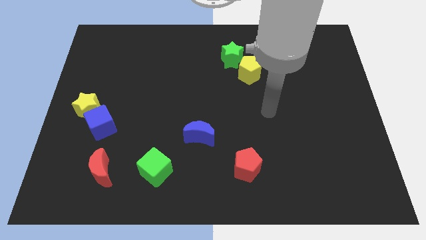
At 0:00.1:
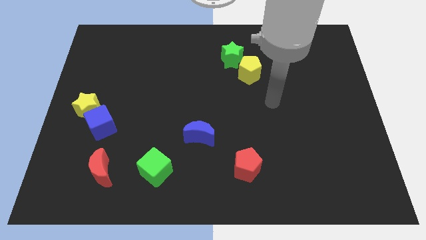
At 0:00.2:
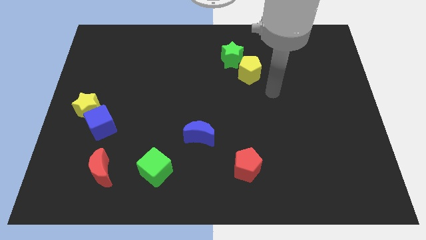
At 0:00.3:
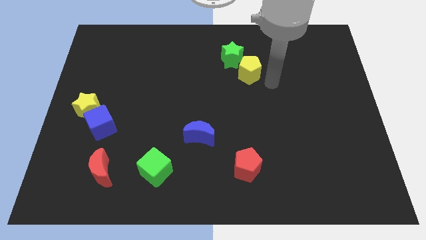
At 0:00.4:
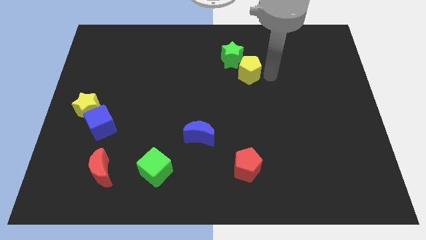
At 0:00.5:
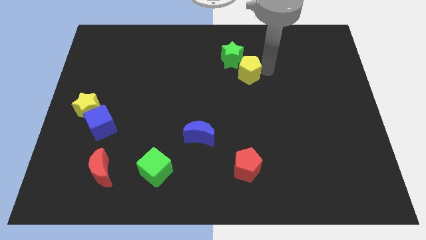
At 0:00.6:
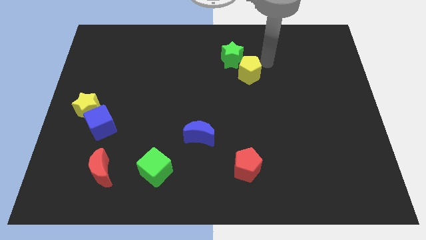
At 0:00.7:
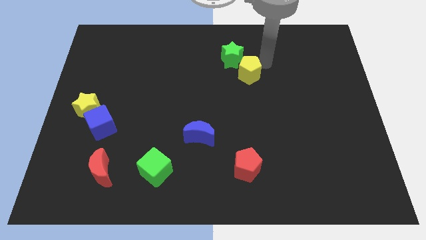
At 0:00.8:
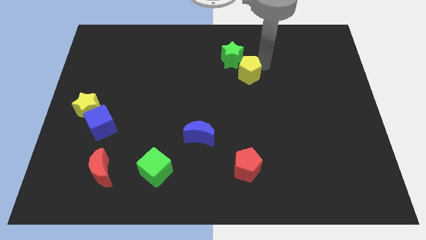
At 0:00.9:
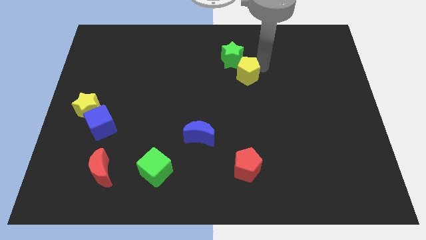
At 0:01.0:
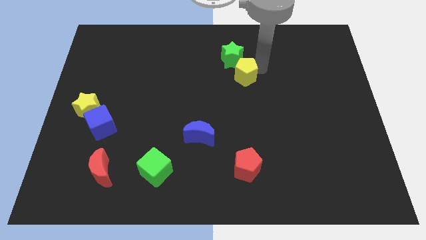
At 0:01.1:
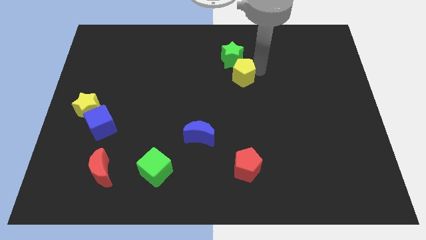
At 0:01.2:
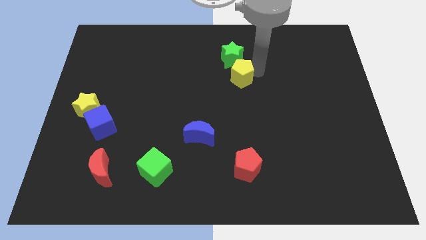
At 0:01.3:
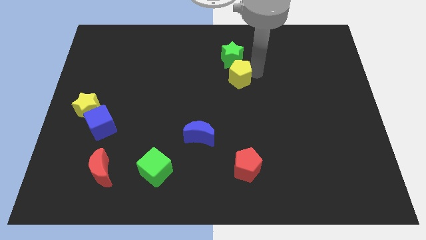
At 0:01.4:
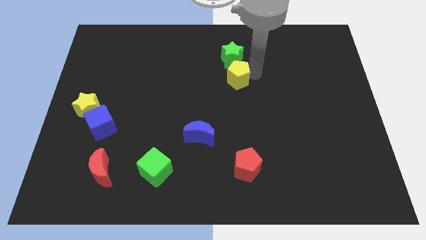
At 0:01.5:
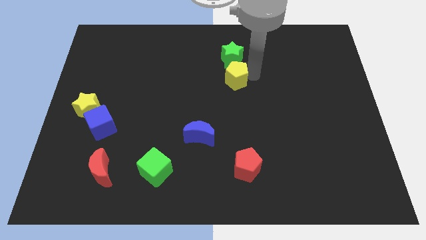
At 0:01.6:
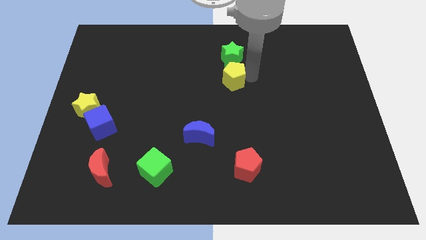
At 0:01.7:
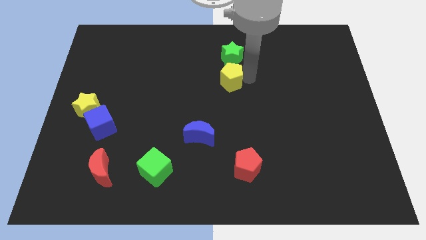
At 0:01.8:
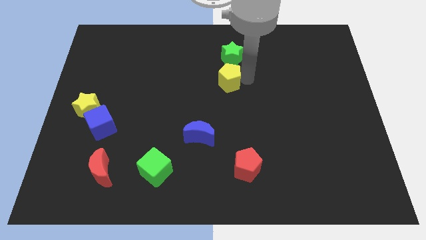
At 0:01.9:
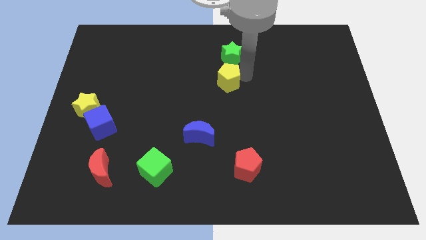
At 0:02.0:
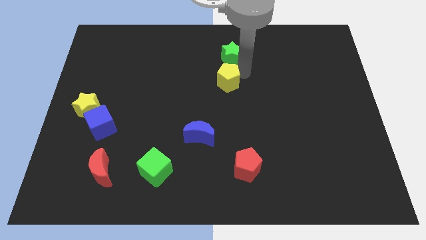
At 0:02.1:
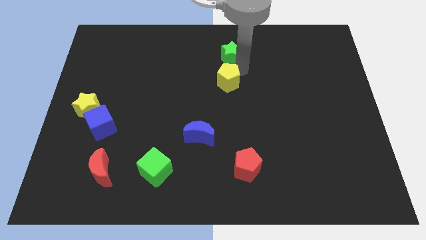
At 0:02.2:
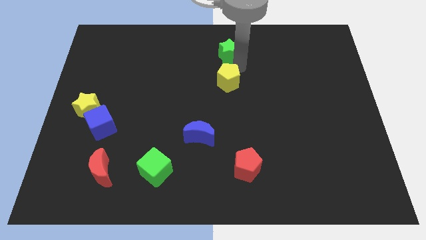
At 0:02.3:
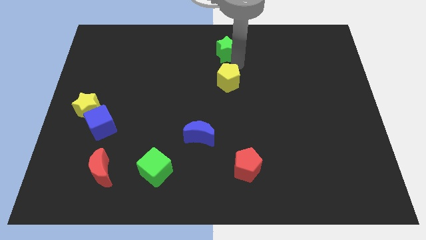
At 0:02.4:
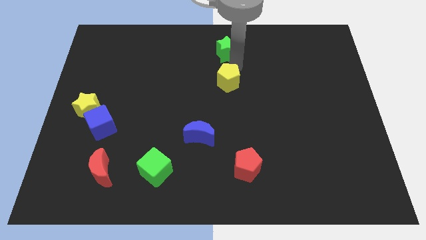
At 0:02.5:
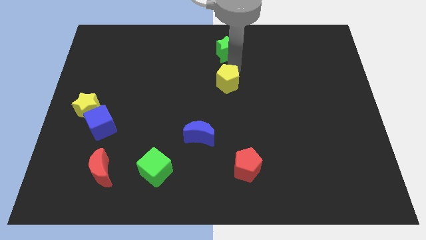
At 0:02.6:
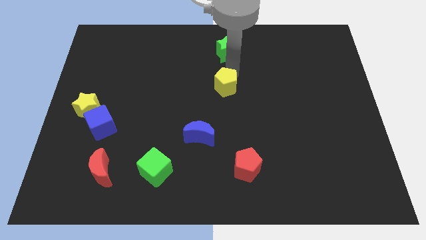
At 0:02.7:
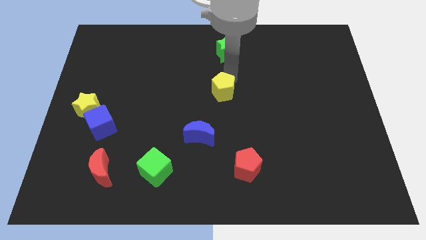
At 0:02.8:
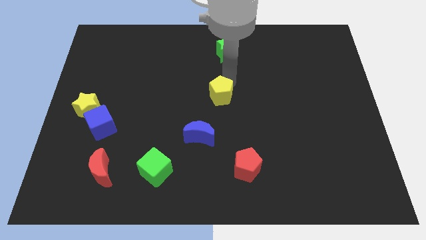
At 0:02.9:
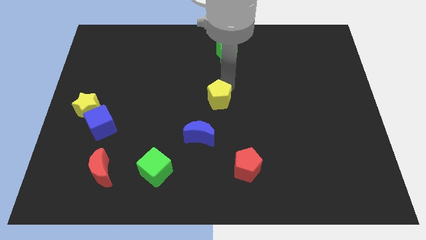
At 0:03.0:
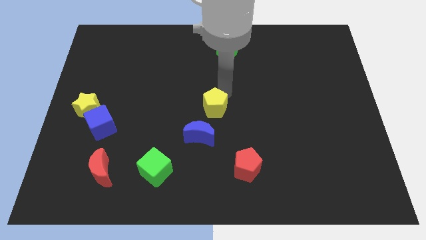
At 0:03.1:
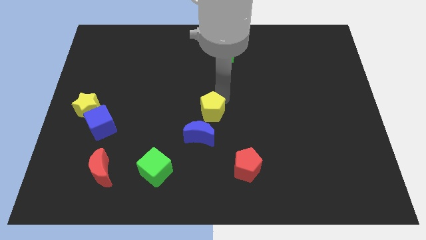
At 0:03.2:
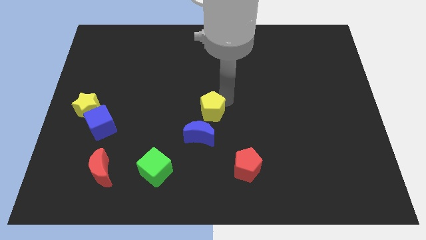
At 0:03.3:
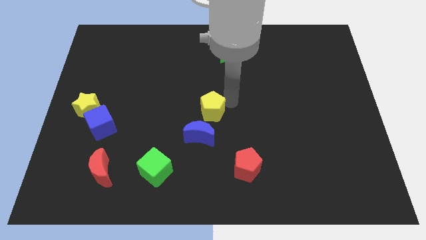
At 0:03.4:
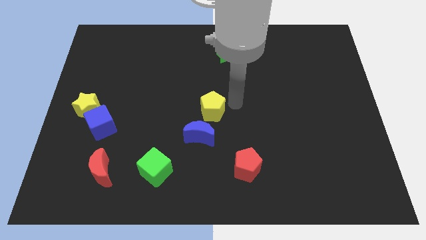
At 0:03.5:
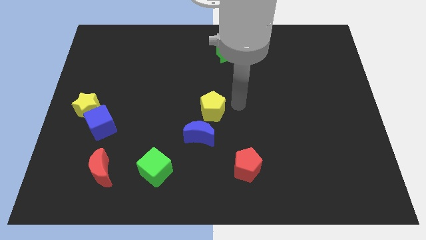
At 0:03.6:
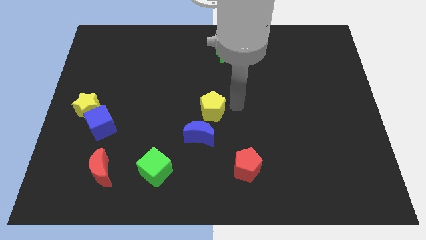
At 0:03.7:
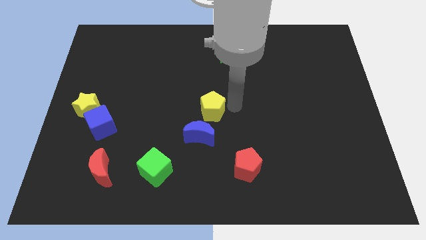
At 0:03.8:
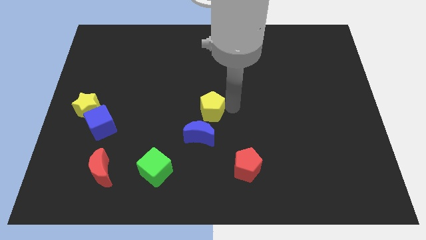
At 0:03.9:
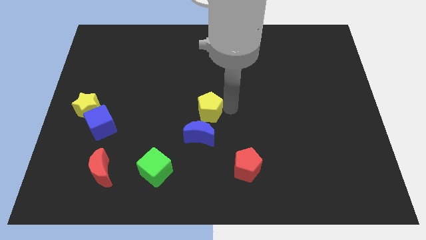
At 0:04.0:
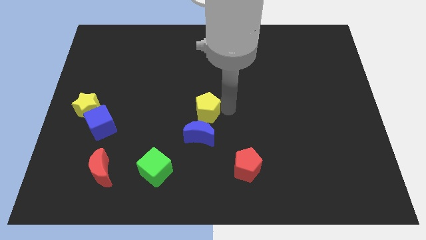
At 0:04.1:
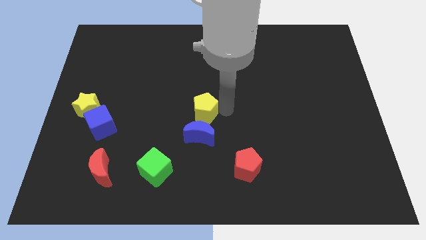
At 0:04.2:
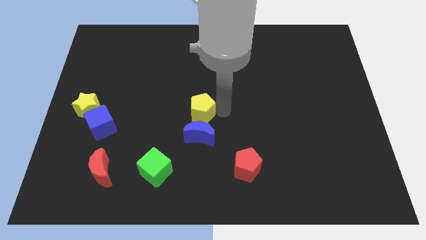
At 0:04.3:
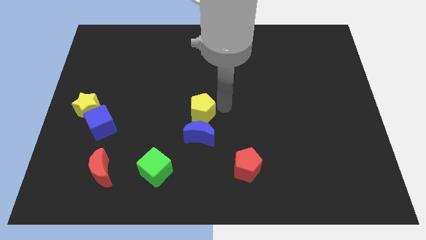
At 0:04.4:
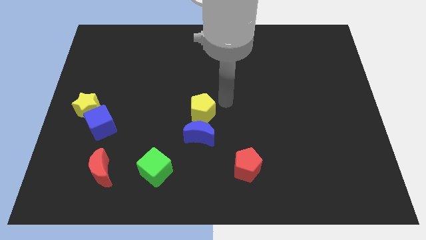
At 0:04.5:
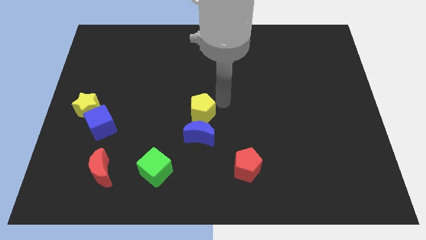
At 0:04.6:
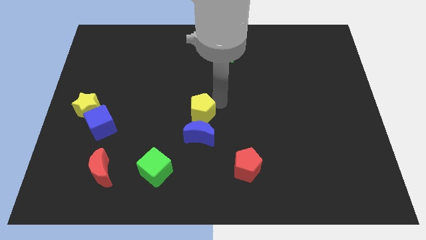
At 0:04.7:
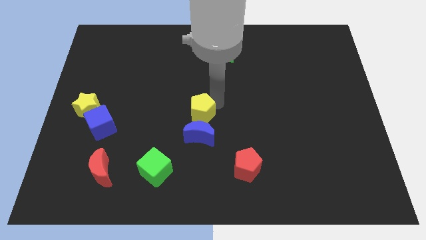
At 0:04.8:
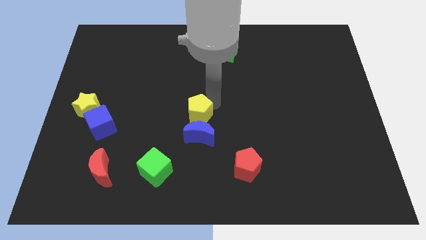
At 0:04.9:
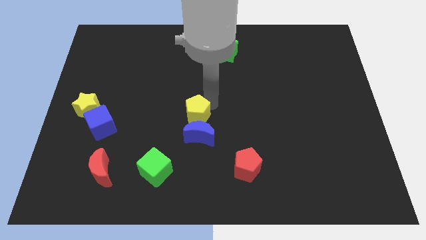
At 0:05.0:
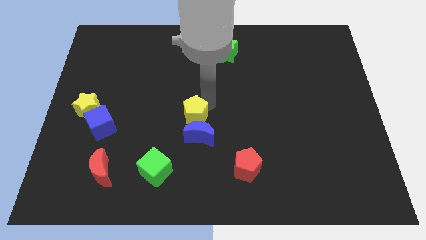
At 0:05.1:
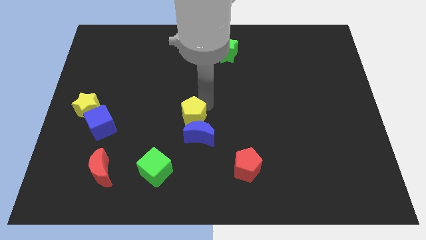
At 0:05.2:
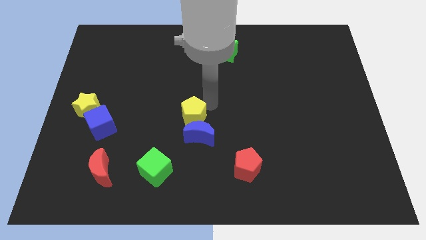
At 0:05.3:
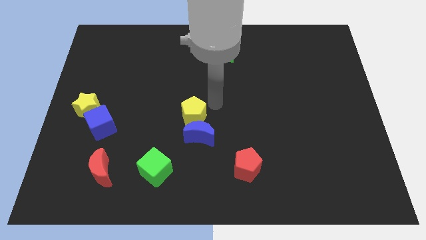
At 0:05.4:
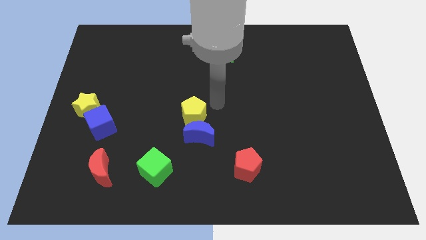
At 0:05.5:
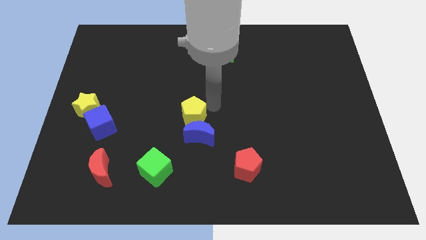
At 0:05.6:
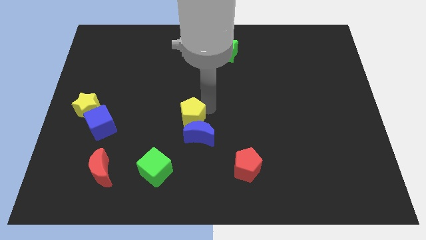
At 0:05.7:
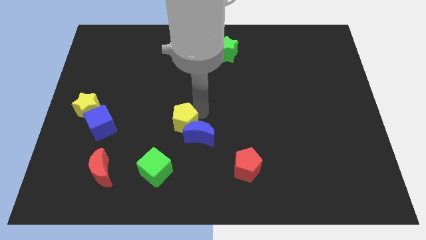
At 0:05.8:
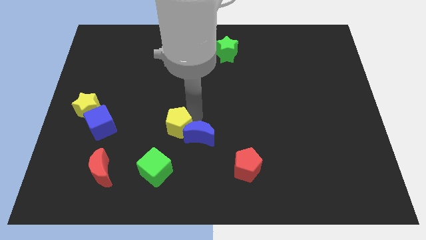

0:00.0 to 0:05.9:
slide the yellow pentagon to the top of the green cube
